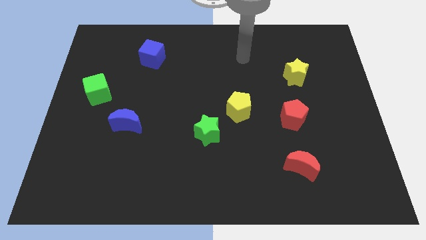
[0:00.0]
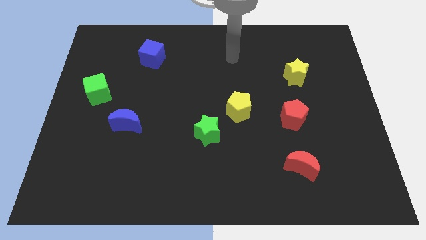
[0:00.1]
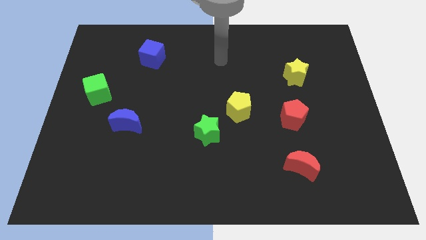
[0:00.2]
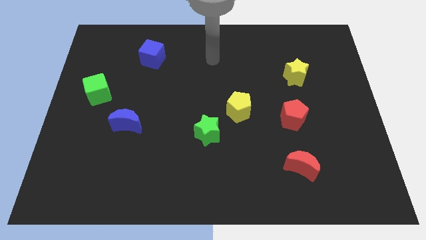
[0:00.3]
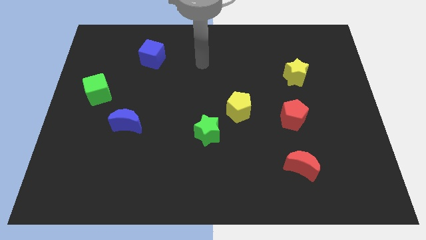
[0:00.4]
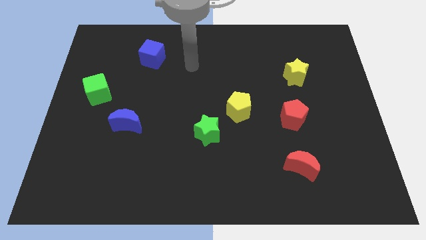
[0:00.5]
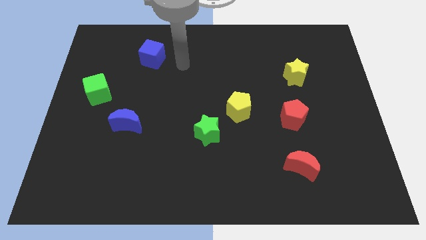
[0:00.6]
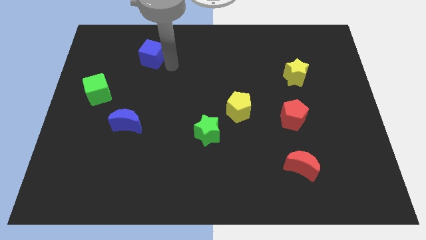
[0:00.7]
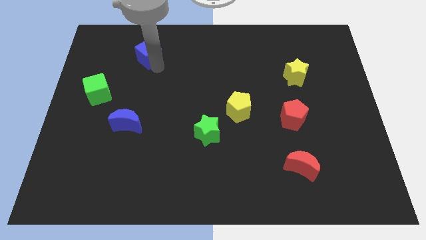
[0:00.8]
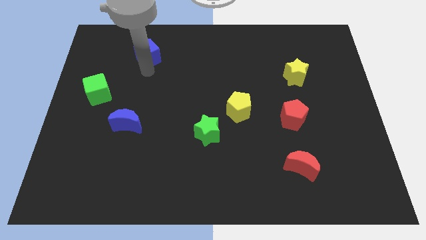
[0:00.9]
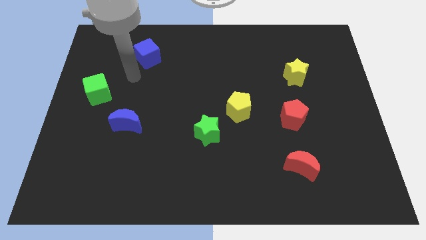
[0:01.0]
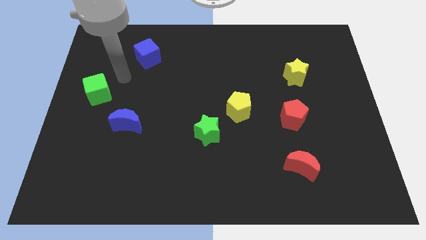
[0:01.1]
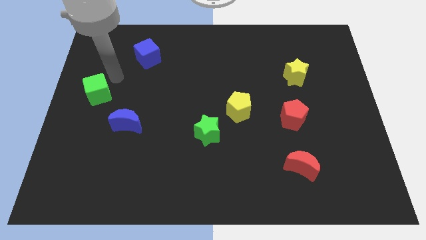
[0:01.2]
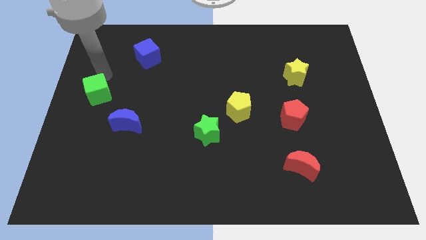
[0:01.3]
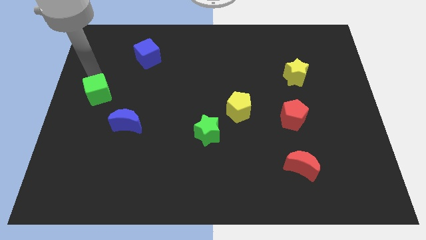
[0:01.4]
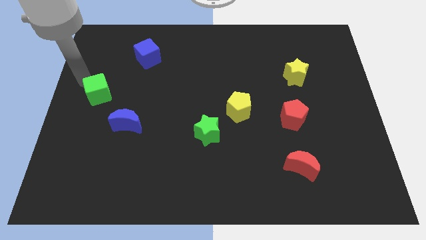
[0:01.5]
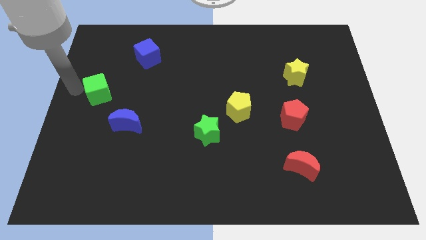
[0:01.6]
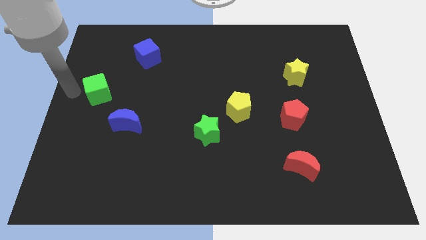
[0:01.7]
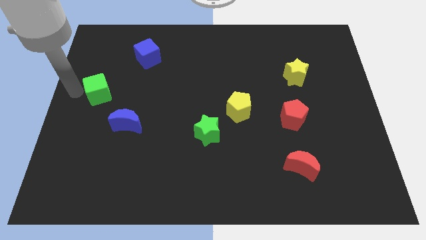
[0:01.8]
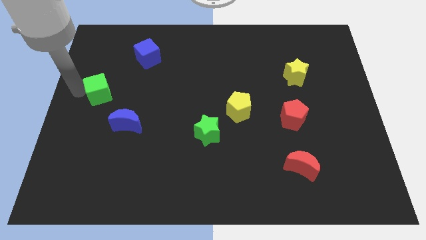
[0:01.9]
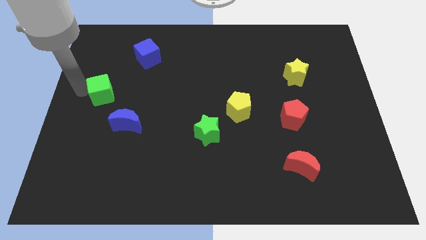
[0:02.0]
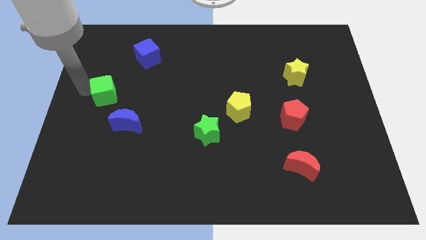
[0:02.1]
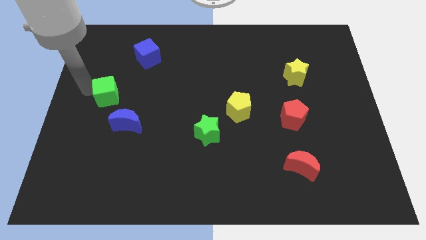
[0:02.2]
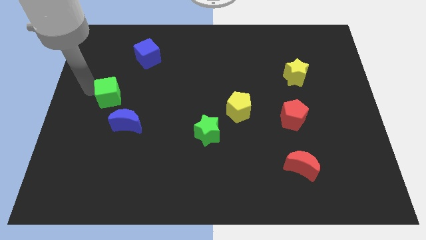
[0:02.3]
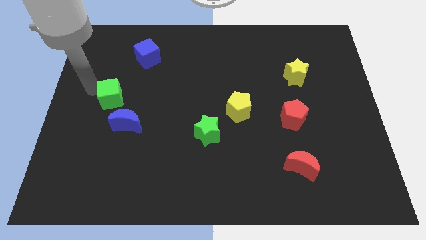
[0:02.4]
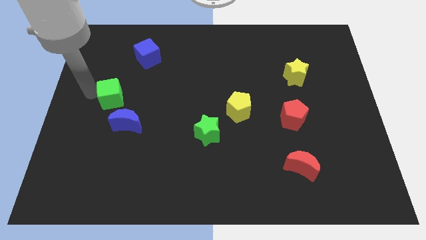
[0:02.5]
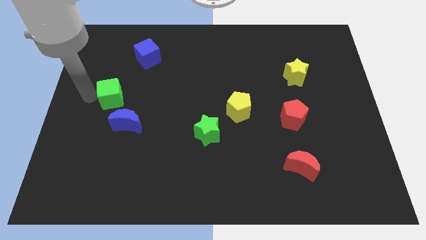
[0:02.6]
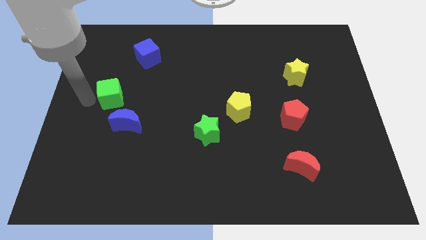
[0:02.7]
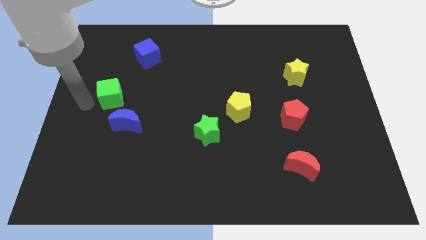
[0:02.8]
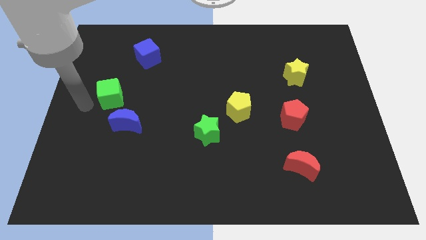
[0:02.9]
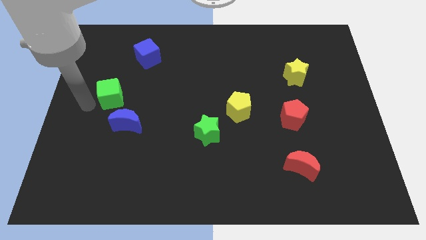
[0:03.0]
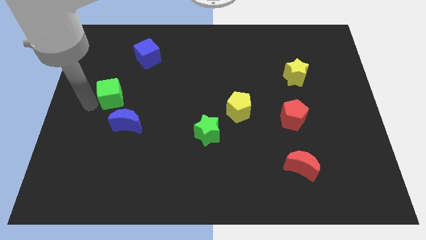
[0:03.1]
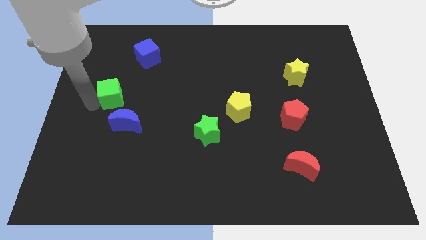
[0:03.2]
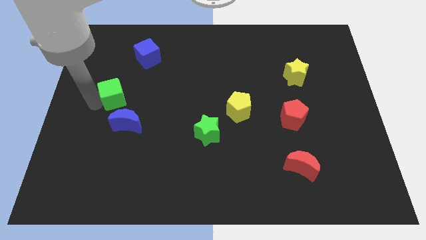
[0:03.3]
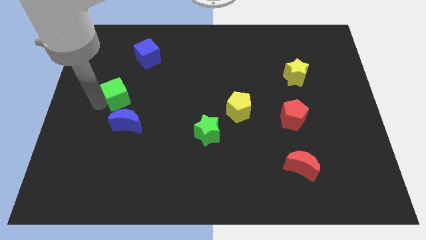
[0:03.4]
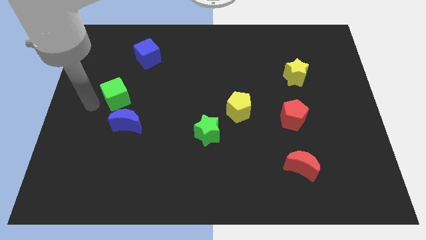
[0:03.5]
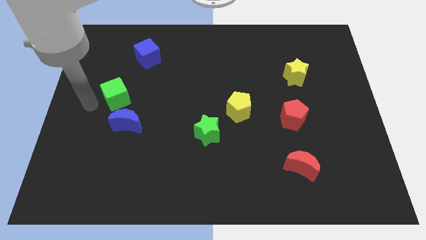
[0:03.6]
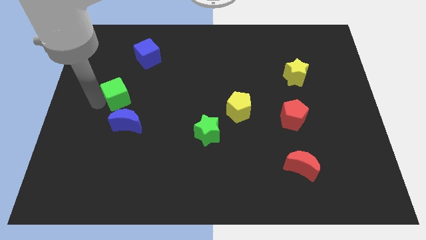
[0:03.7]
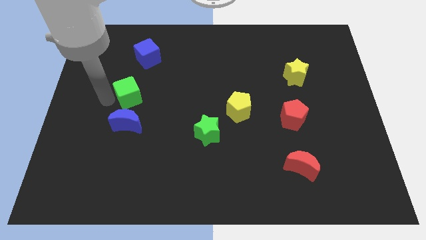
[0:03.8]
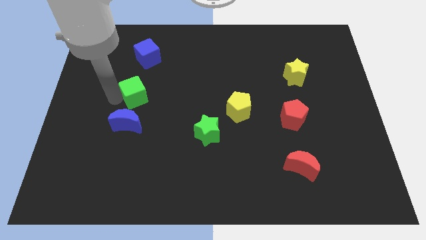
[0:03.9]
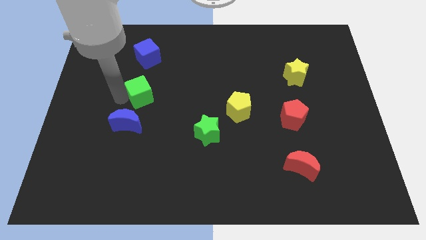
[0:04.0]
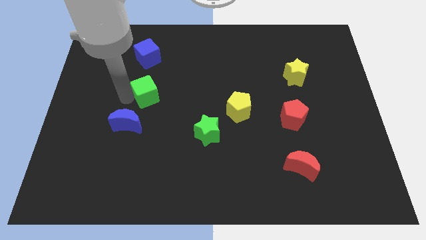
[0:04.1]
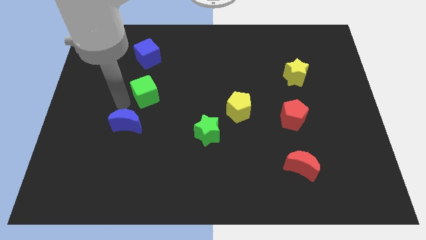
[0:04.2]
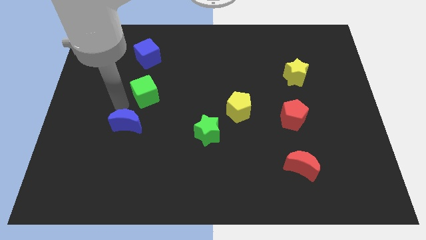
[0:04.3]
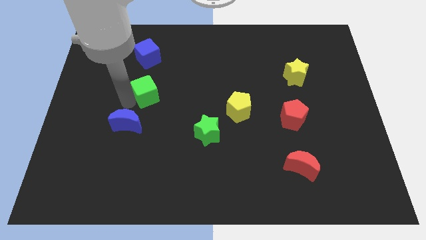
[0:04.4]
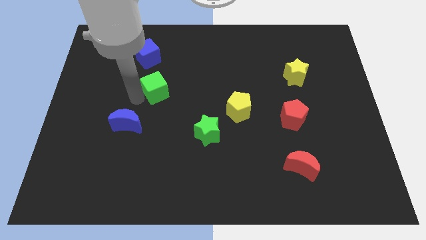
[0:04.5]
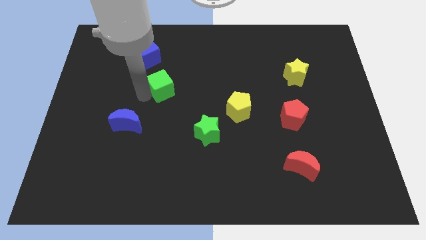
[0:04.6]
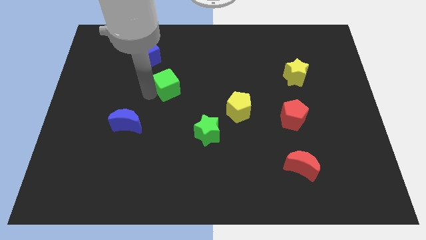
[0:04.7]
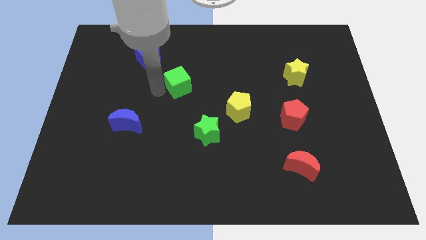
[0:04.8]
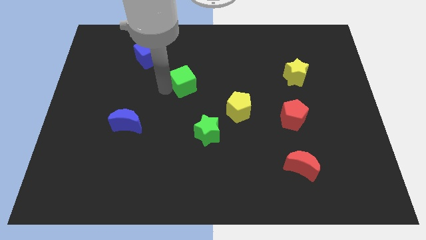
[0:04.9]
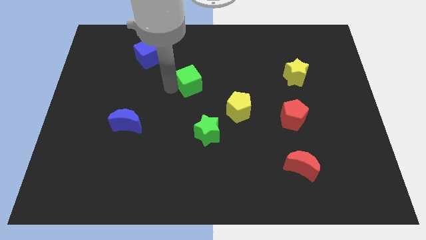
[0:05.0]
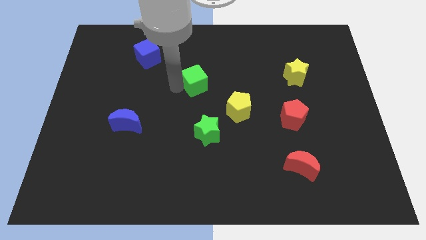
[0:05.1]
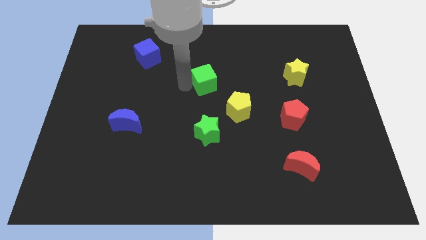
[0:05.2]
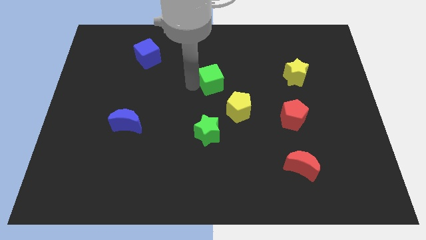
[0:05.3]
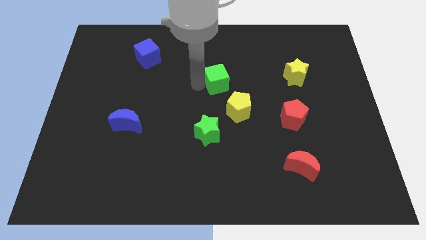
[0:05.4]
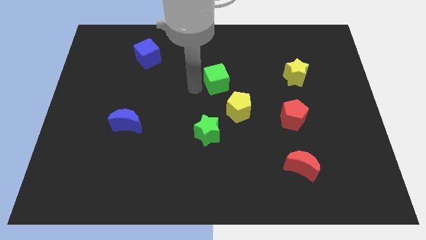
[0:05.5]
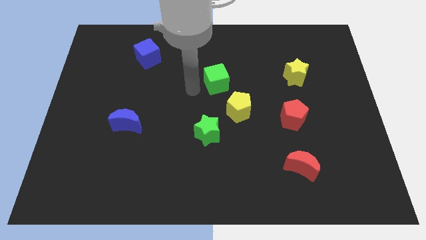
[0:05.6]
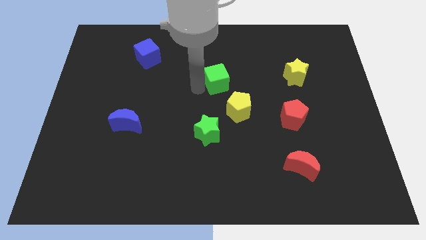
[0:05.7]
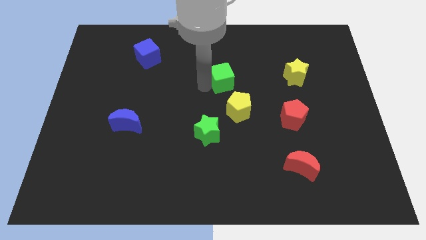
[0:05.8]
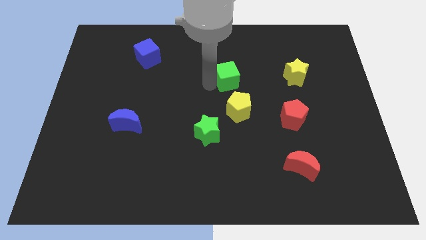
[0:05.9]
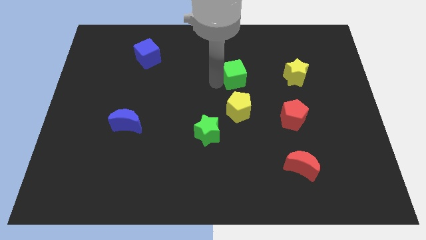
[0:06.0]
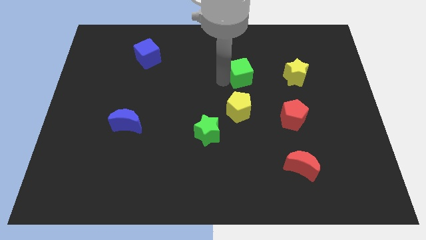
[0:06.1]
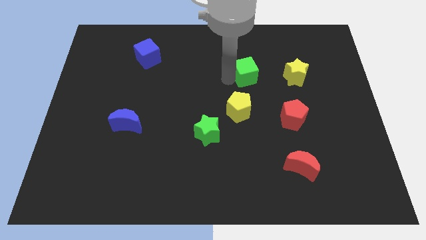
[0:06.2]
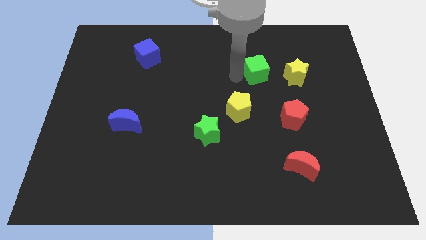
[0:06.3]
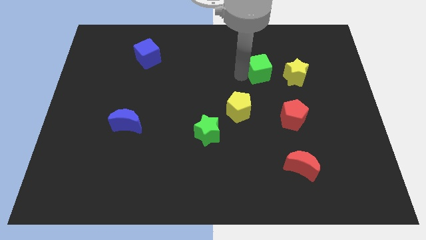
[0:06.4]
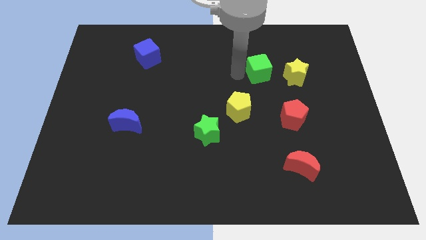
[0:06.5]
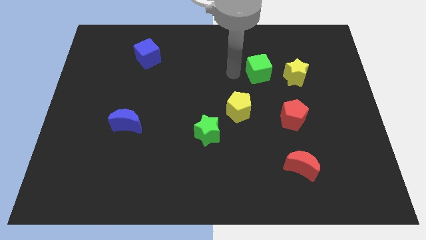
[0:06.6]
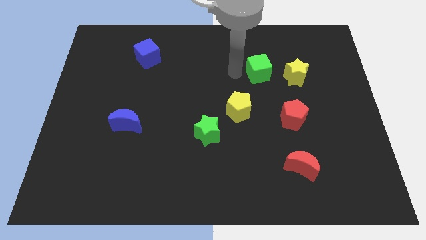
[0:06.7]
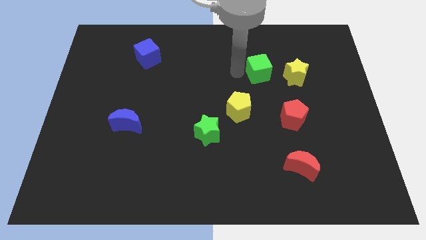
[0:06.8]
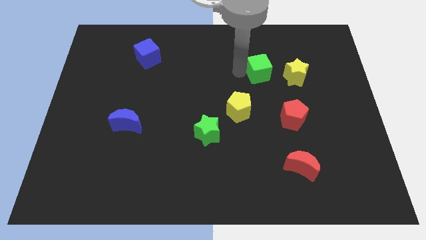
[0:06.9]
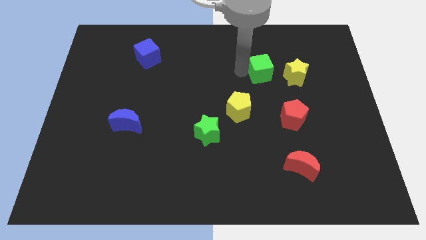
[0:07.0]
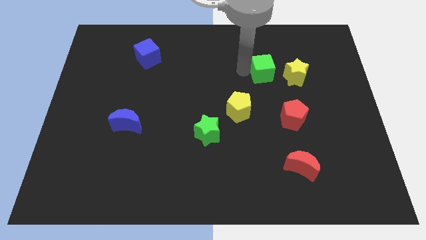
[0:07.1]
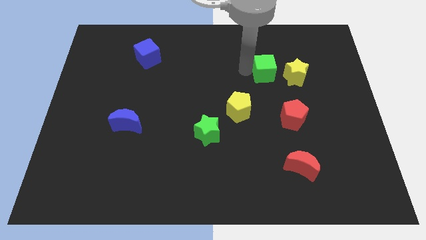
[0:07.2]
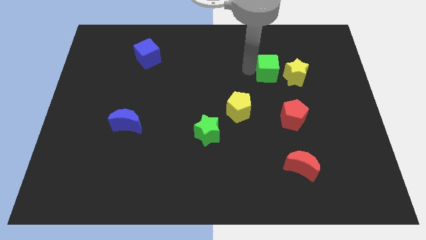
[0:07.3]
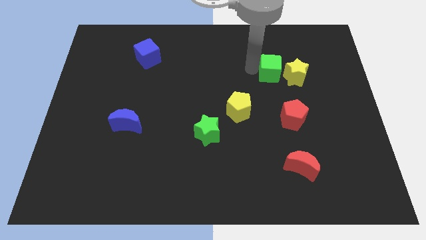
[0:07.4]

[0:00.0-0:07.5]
put the green cube close to the yellow star
